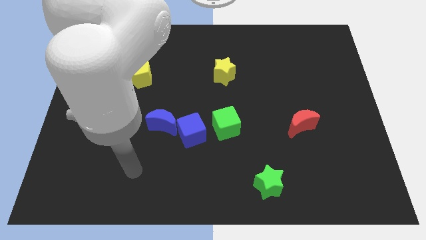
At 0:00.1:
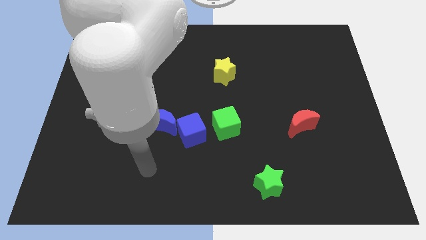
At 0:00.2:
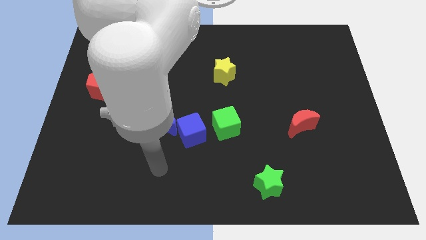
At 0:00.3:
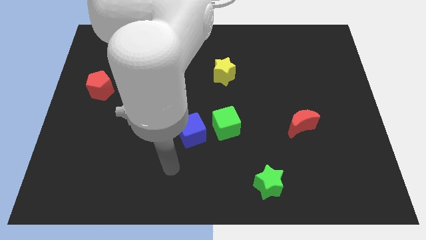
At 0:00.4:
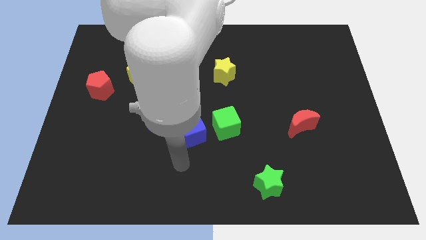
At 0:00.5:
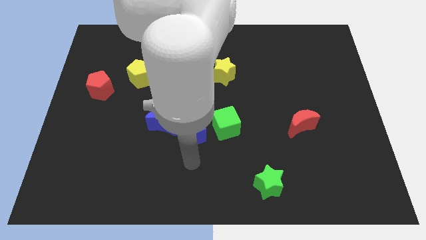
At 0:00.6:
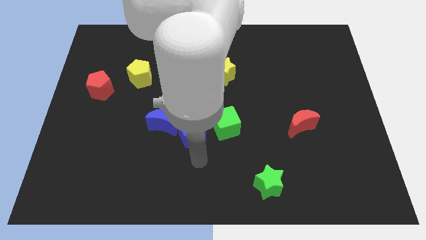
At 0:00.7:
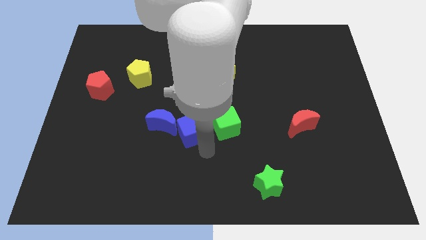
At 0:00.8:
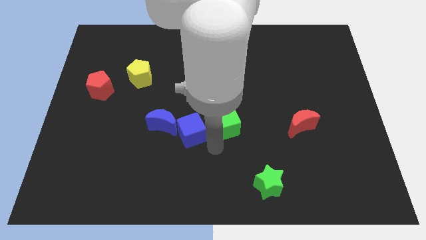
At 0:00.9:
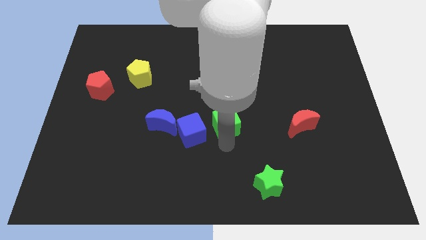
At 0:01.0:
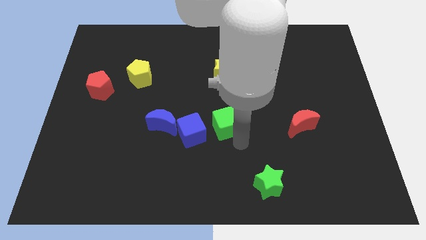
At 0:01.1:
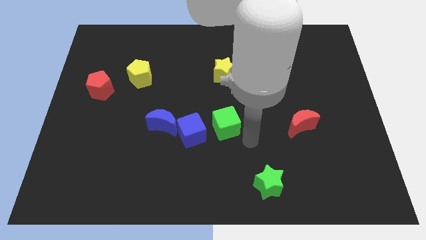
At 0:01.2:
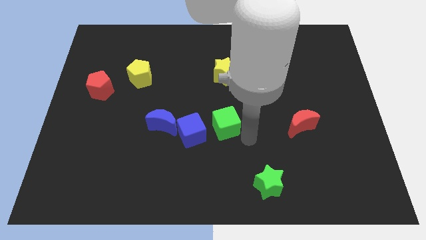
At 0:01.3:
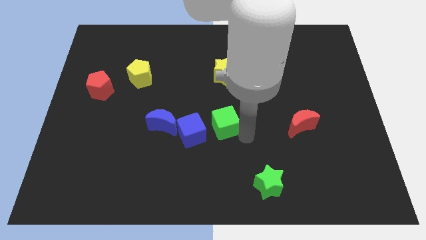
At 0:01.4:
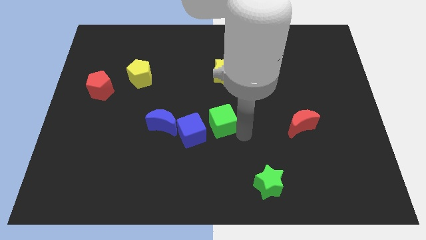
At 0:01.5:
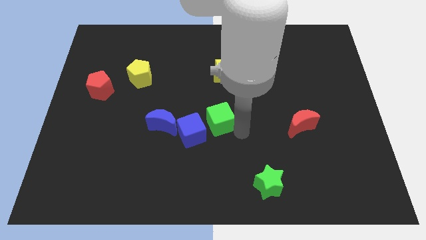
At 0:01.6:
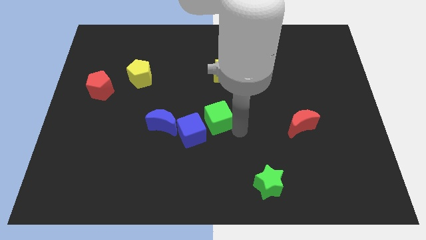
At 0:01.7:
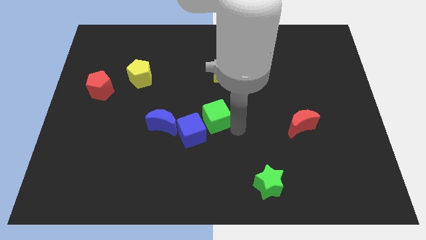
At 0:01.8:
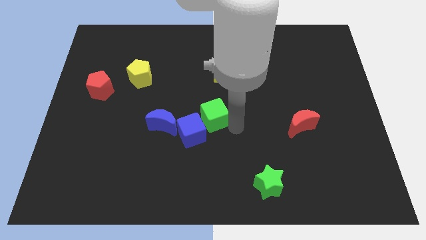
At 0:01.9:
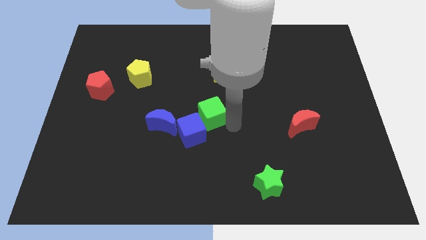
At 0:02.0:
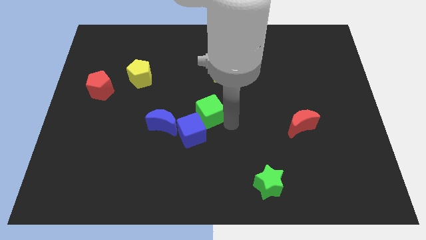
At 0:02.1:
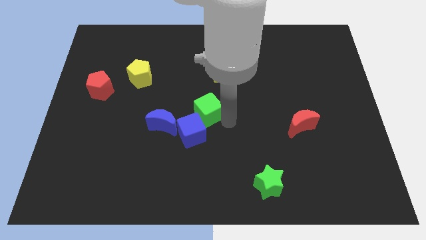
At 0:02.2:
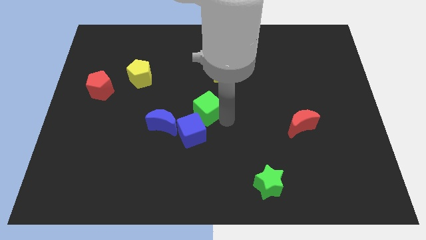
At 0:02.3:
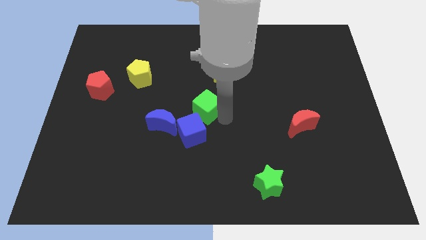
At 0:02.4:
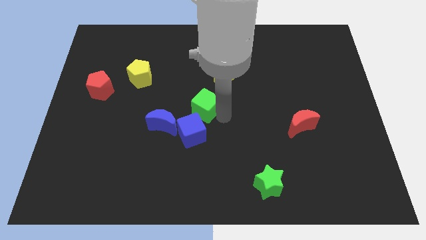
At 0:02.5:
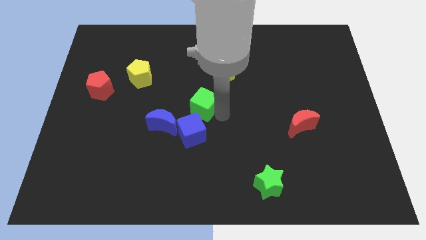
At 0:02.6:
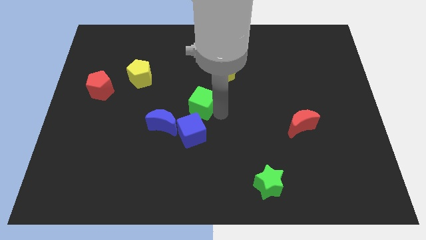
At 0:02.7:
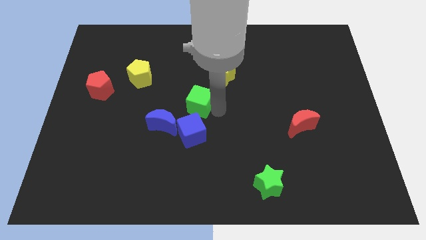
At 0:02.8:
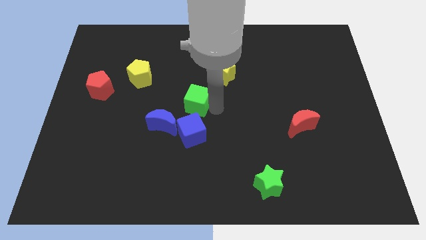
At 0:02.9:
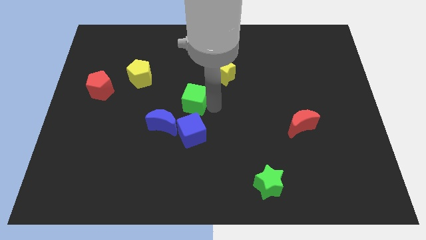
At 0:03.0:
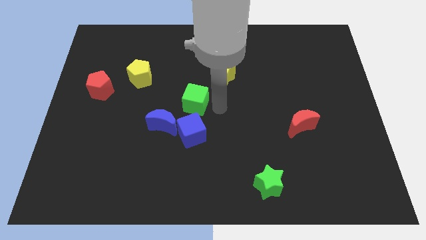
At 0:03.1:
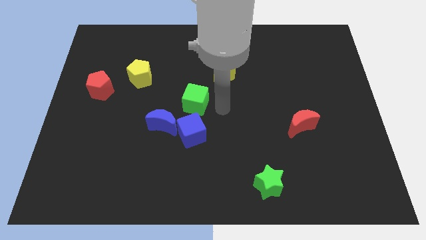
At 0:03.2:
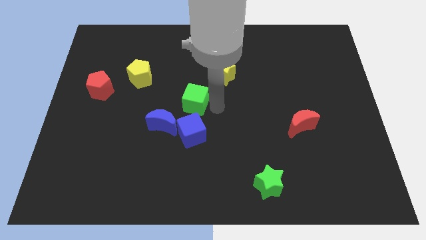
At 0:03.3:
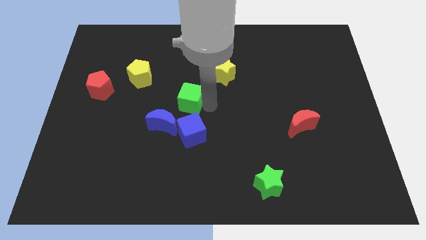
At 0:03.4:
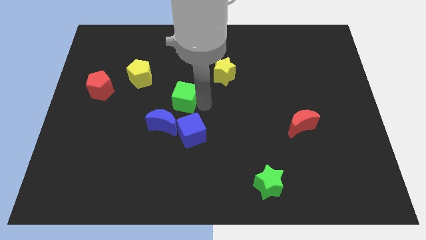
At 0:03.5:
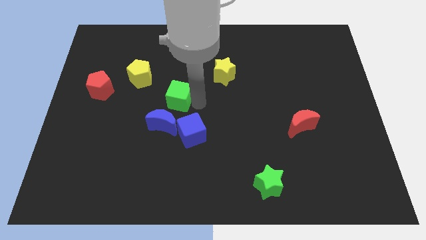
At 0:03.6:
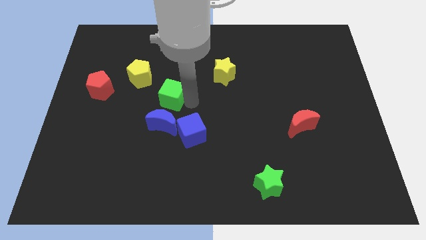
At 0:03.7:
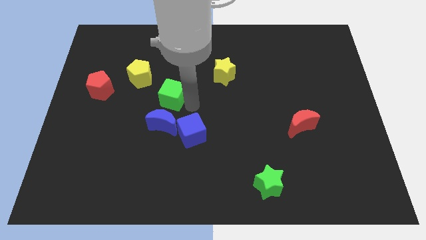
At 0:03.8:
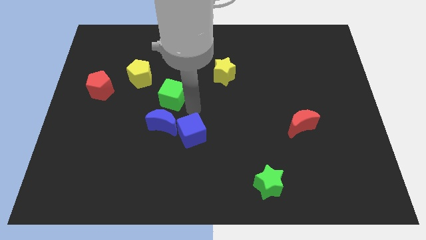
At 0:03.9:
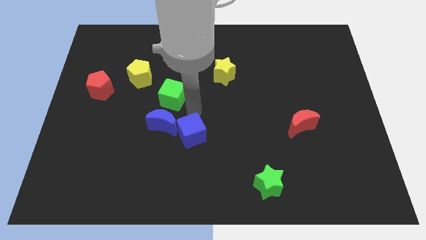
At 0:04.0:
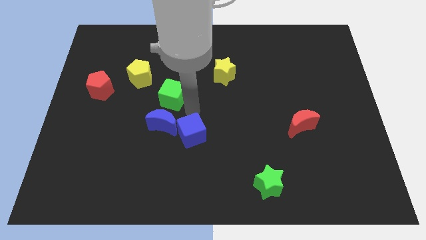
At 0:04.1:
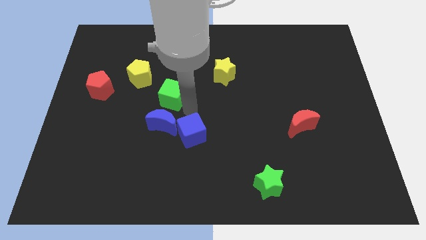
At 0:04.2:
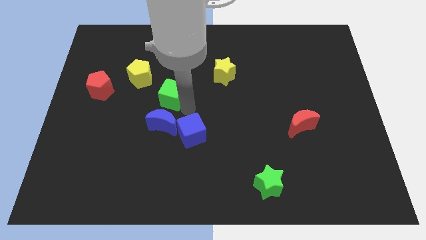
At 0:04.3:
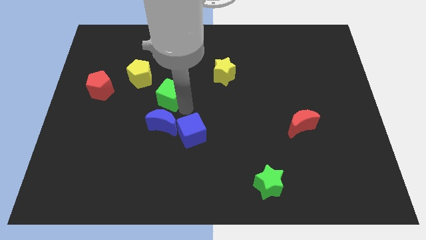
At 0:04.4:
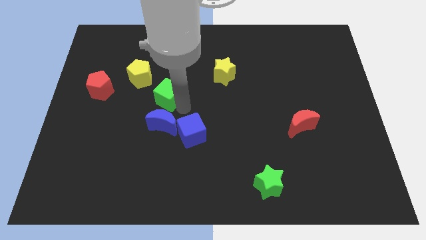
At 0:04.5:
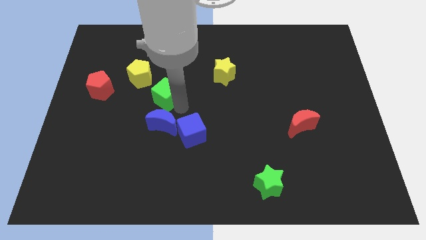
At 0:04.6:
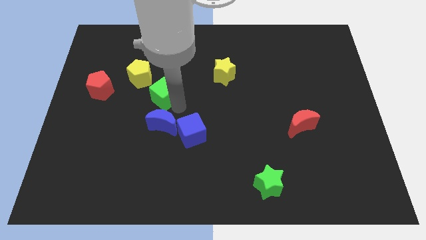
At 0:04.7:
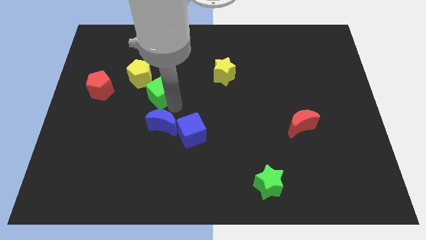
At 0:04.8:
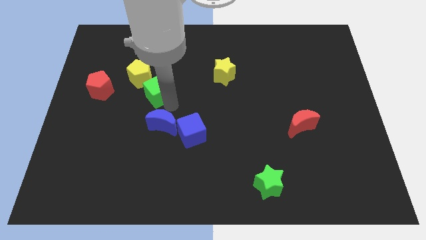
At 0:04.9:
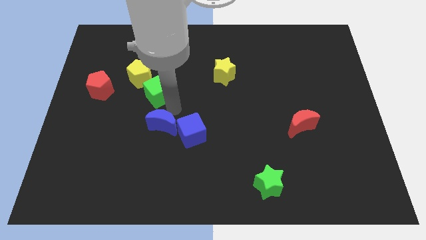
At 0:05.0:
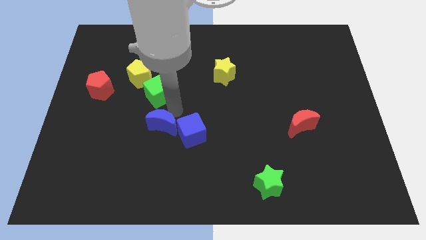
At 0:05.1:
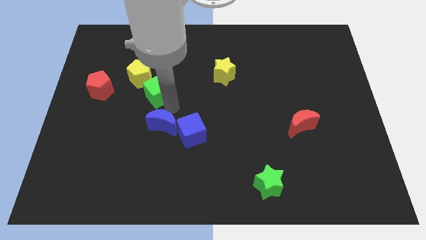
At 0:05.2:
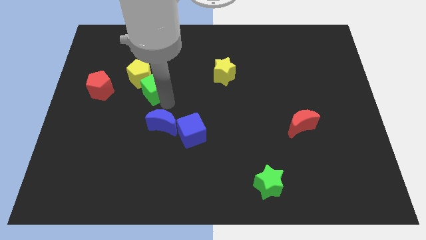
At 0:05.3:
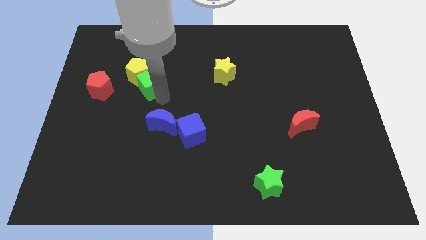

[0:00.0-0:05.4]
slide the green cube towards the yellow pentagon

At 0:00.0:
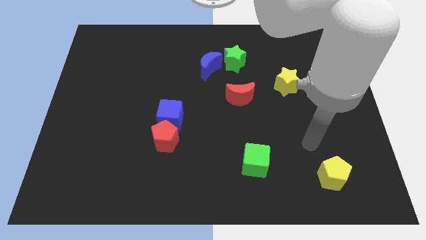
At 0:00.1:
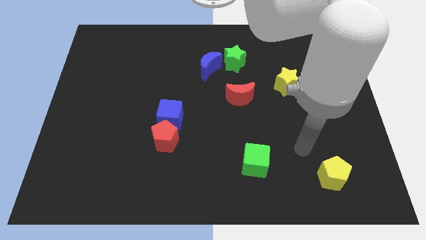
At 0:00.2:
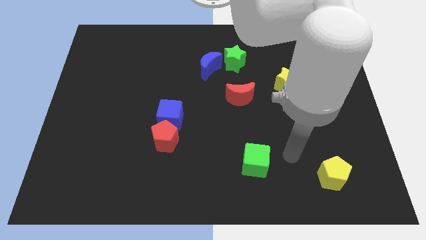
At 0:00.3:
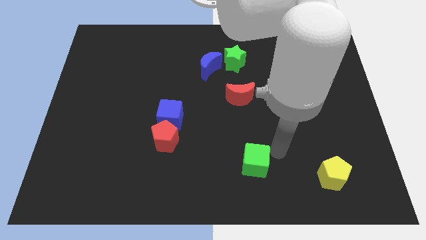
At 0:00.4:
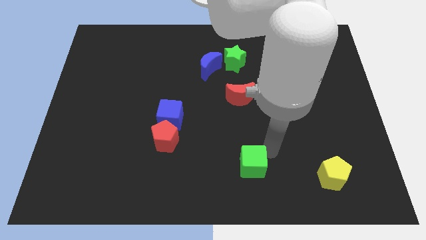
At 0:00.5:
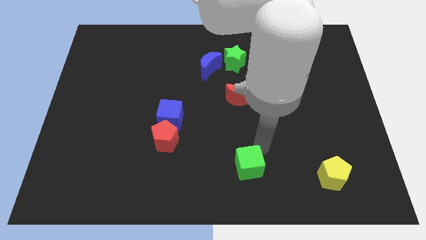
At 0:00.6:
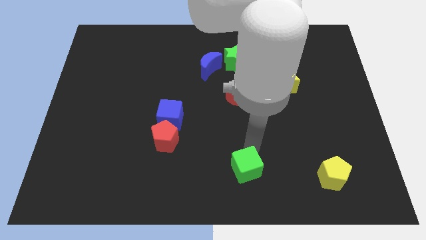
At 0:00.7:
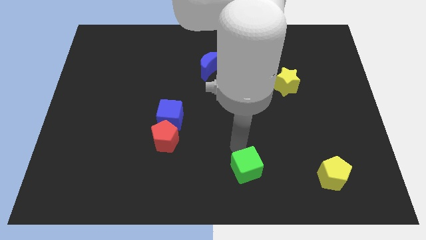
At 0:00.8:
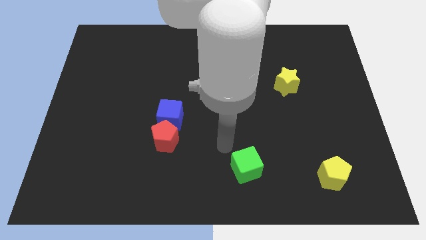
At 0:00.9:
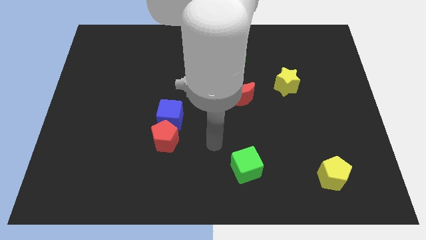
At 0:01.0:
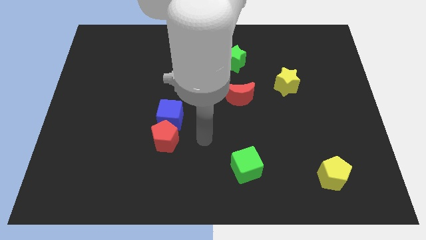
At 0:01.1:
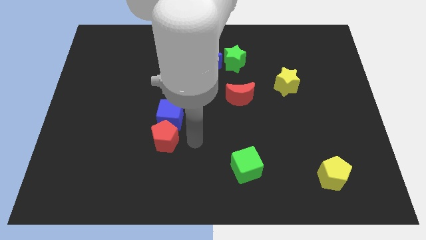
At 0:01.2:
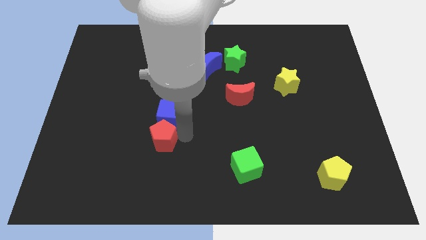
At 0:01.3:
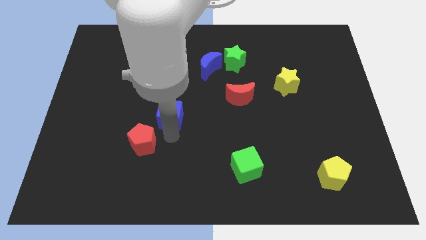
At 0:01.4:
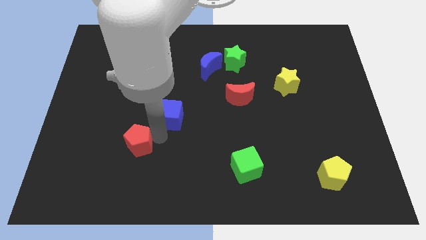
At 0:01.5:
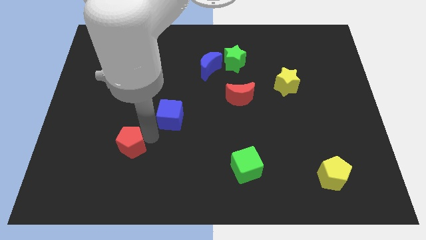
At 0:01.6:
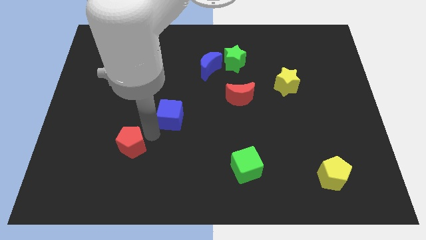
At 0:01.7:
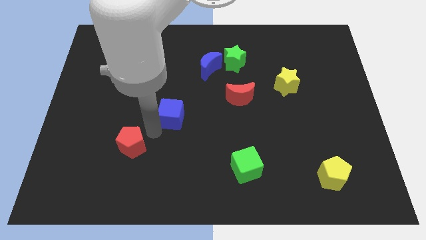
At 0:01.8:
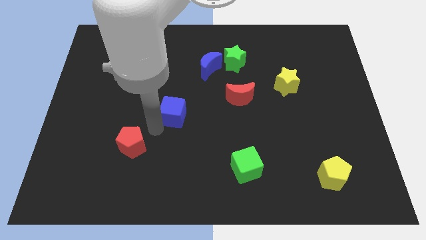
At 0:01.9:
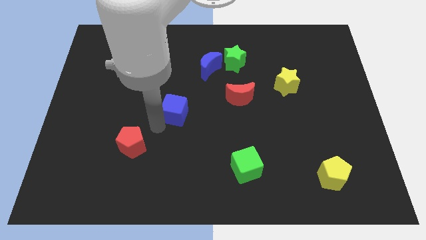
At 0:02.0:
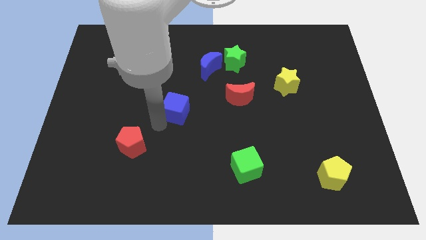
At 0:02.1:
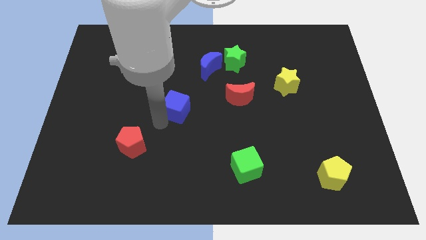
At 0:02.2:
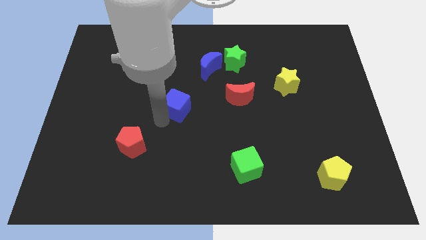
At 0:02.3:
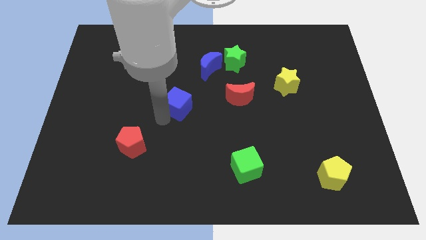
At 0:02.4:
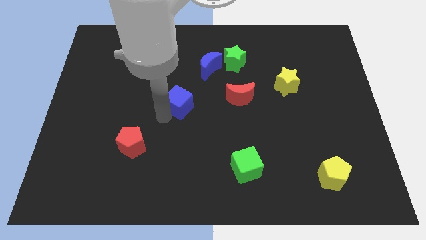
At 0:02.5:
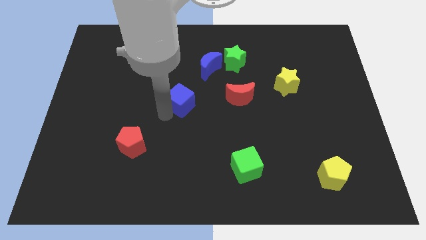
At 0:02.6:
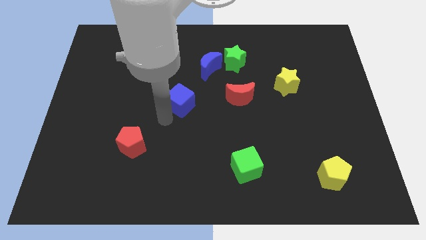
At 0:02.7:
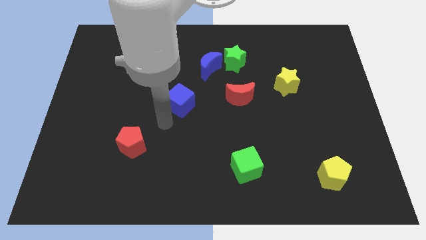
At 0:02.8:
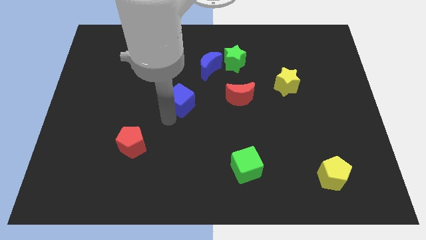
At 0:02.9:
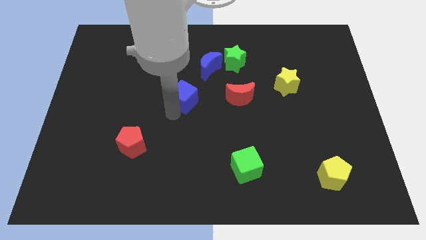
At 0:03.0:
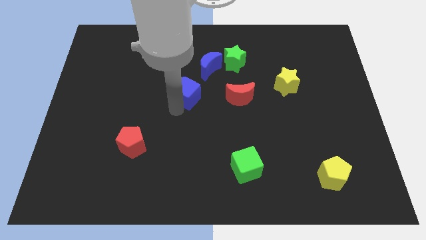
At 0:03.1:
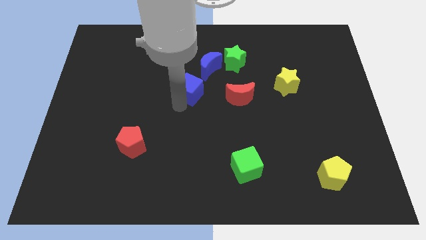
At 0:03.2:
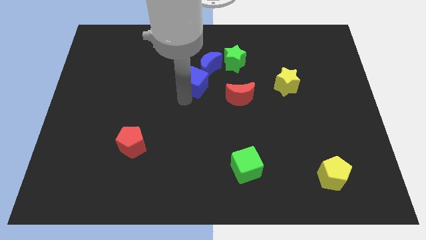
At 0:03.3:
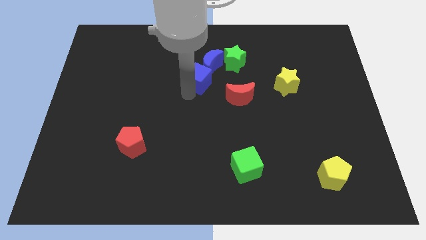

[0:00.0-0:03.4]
move the blue cube next to the blue moon
